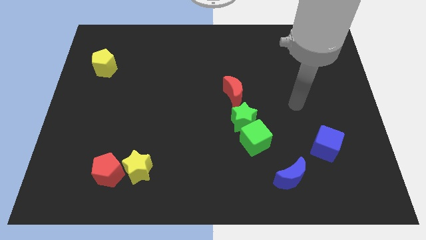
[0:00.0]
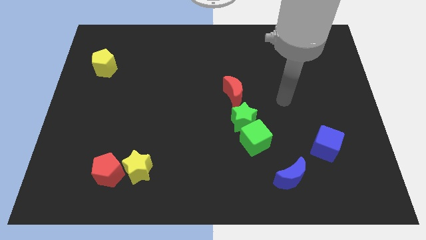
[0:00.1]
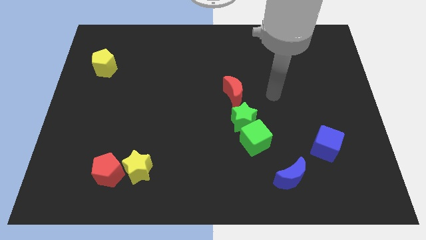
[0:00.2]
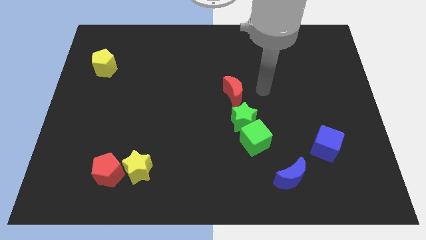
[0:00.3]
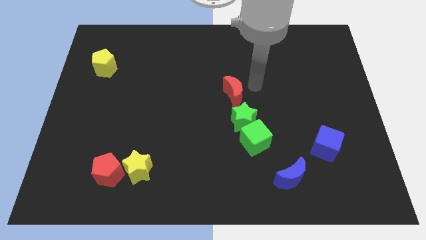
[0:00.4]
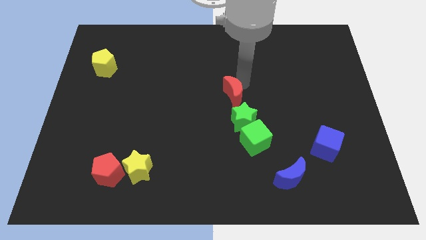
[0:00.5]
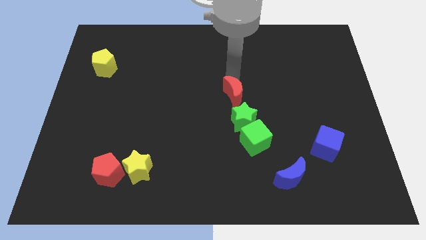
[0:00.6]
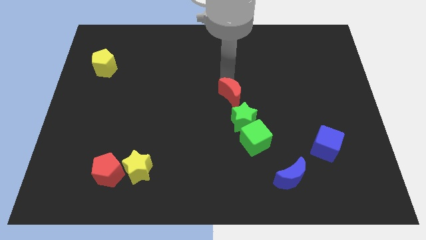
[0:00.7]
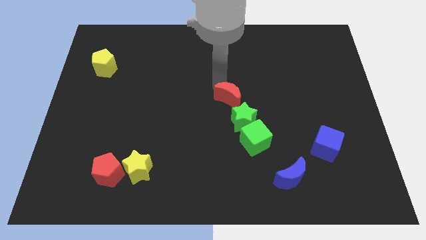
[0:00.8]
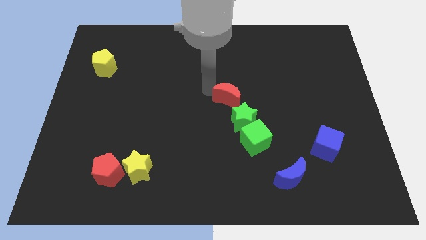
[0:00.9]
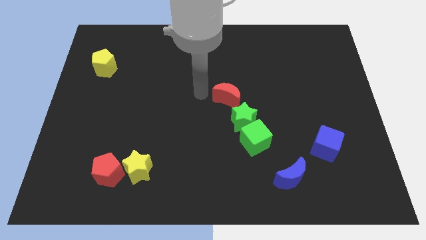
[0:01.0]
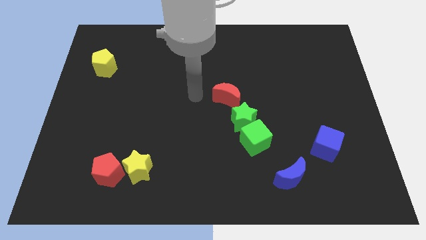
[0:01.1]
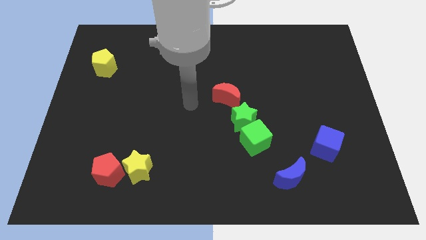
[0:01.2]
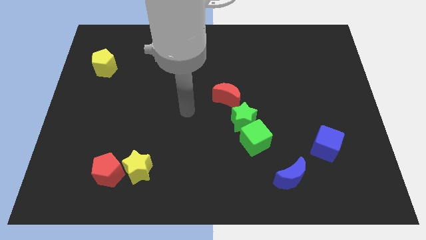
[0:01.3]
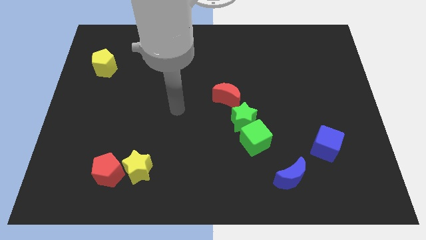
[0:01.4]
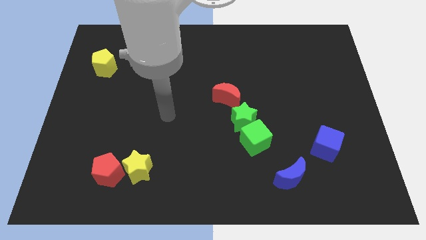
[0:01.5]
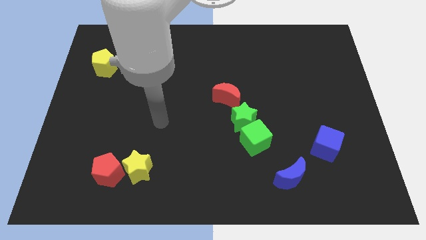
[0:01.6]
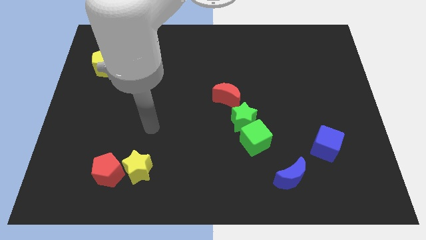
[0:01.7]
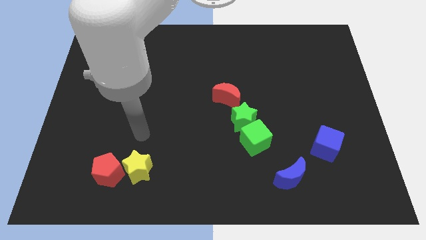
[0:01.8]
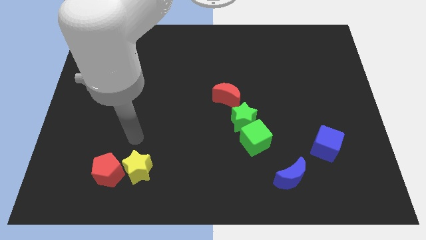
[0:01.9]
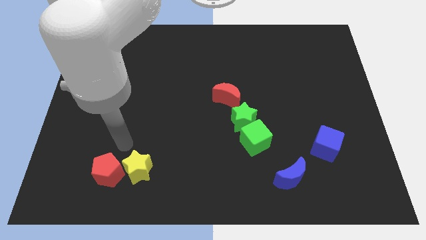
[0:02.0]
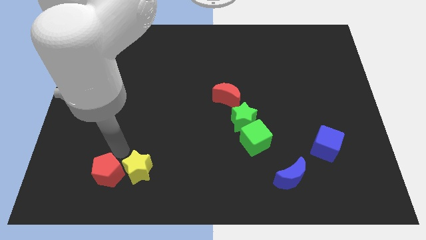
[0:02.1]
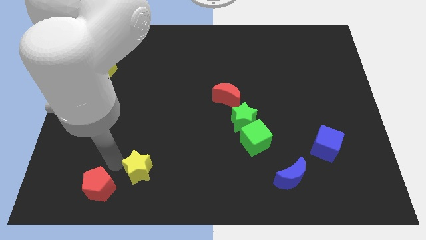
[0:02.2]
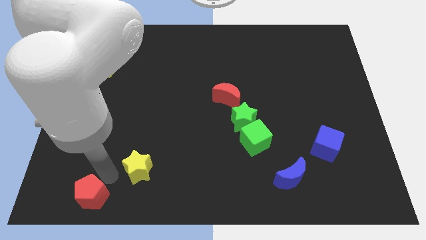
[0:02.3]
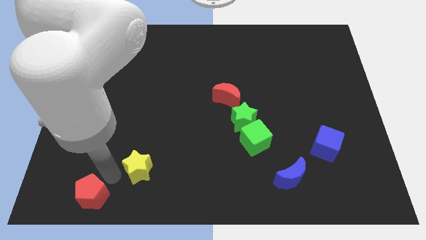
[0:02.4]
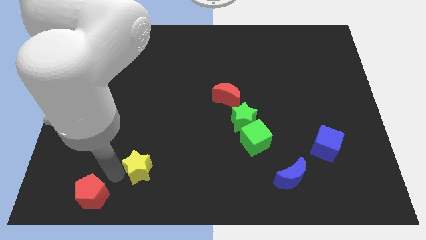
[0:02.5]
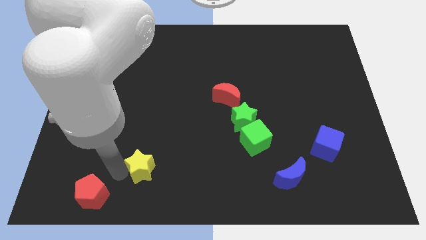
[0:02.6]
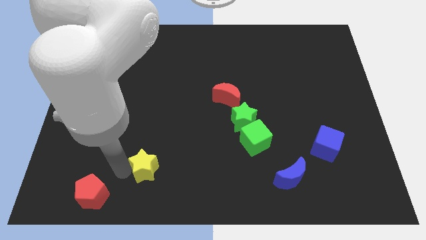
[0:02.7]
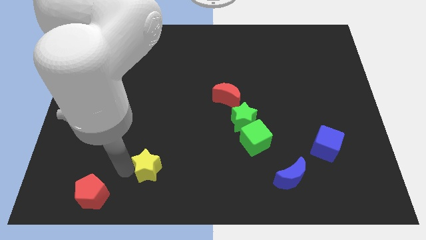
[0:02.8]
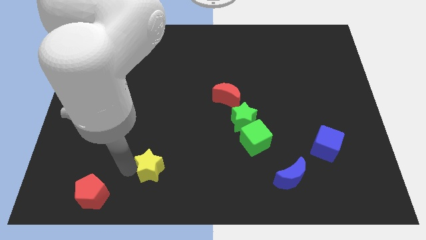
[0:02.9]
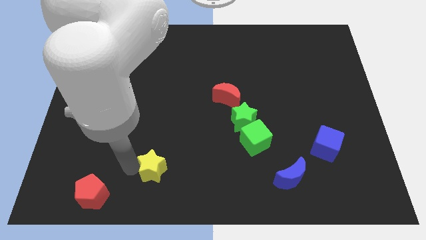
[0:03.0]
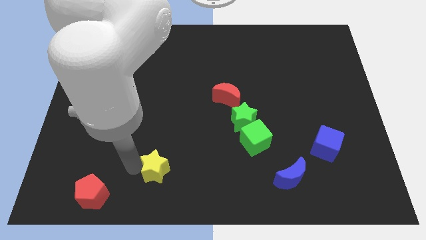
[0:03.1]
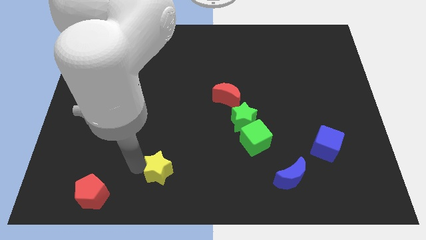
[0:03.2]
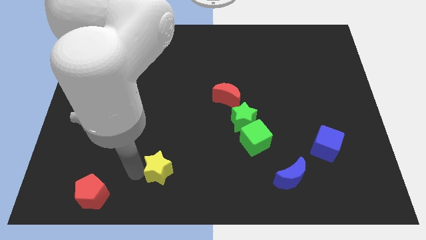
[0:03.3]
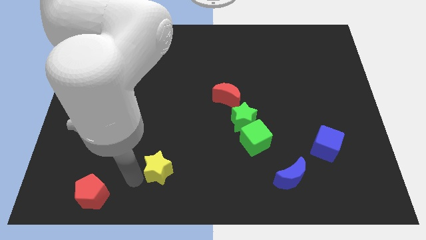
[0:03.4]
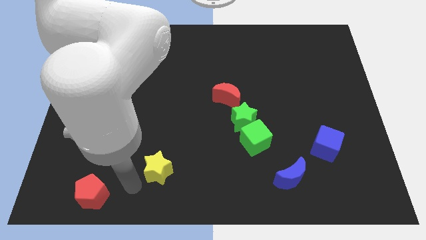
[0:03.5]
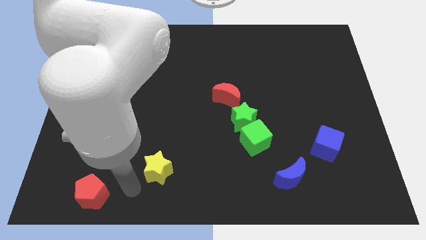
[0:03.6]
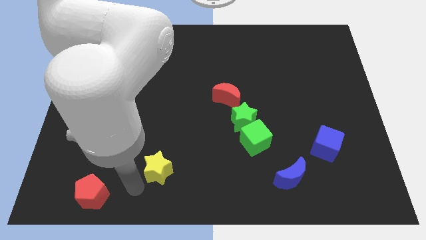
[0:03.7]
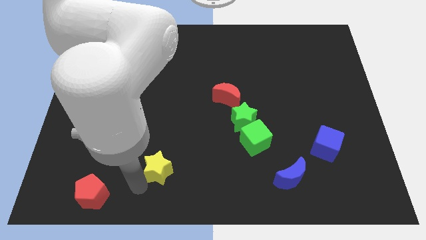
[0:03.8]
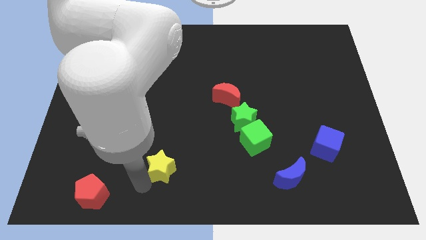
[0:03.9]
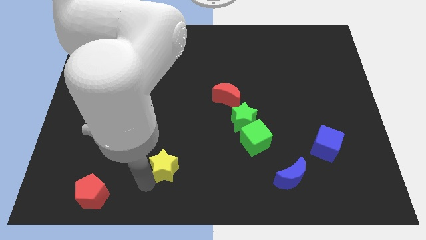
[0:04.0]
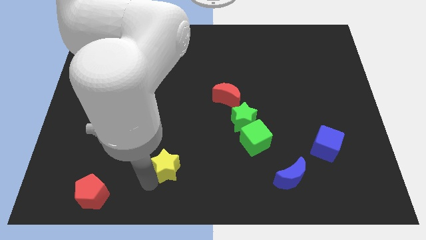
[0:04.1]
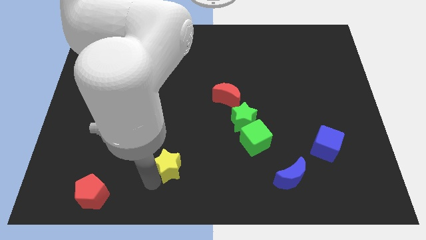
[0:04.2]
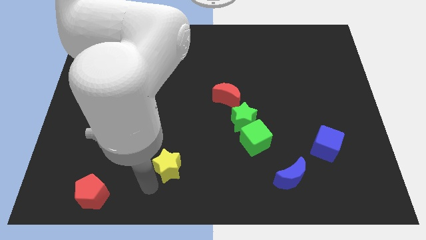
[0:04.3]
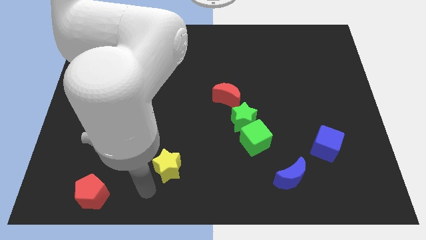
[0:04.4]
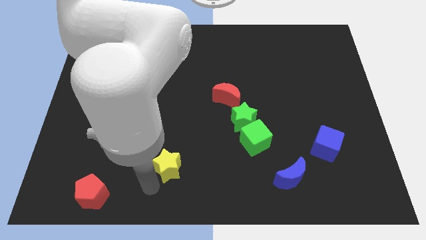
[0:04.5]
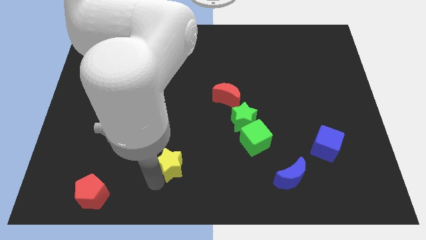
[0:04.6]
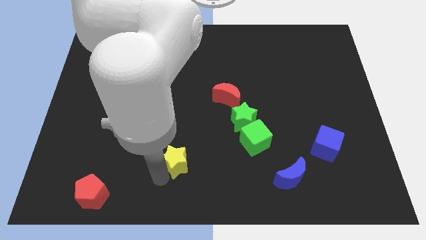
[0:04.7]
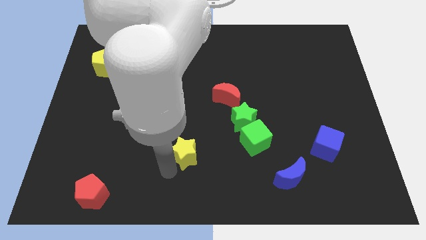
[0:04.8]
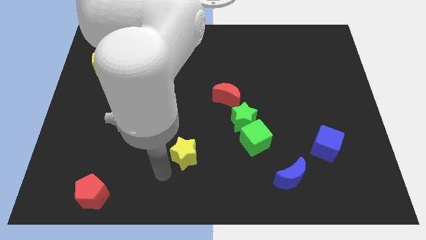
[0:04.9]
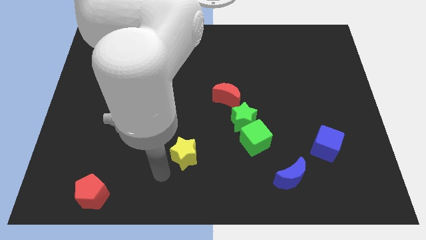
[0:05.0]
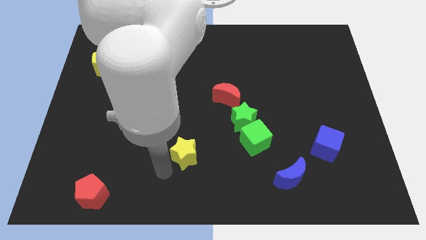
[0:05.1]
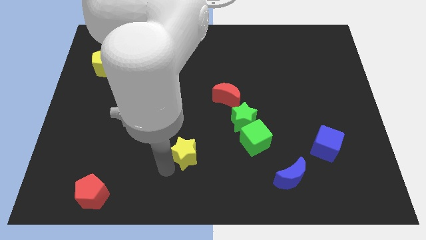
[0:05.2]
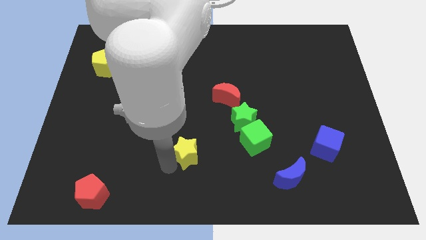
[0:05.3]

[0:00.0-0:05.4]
push the yellow star left of the green cube

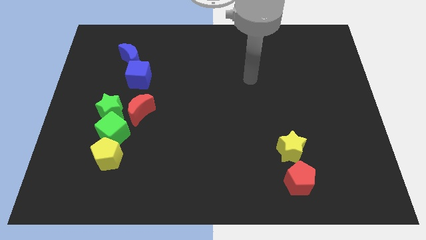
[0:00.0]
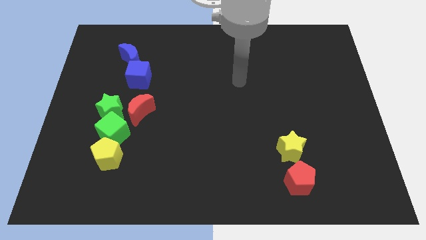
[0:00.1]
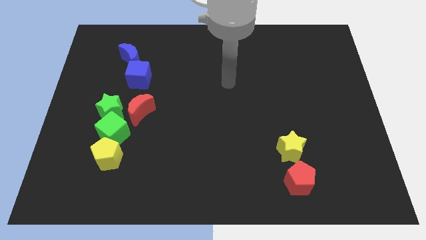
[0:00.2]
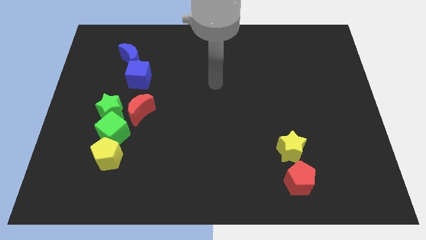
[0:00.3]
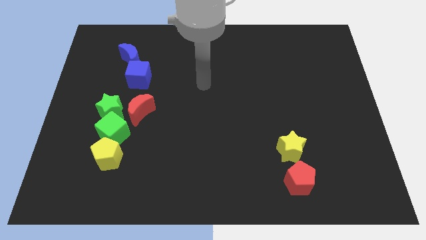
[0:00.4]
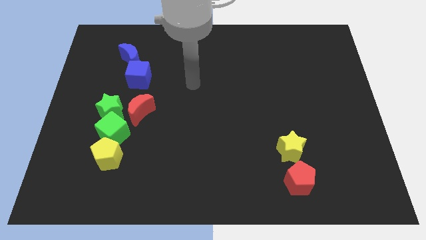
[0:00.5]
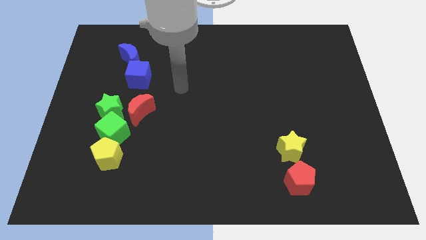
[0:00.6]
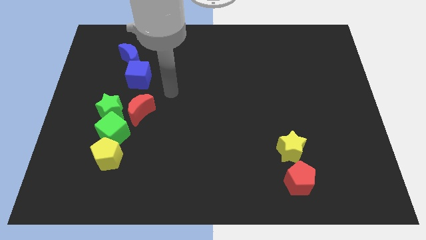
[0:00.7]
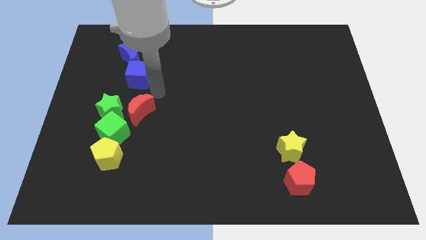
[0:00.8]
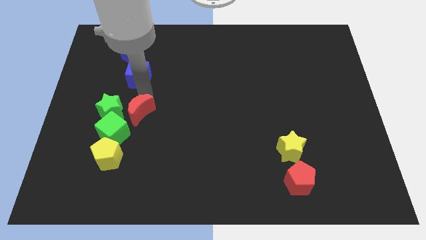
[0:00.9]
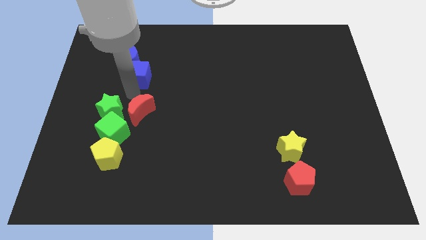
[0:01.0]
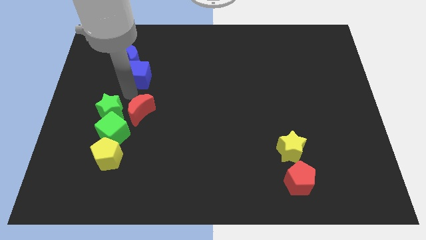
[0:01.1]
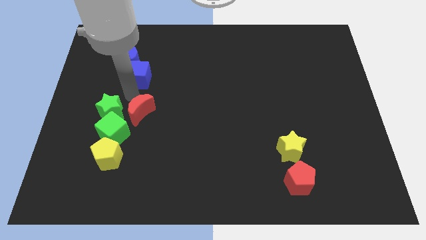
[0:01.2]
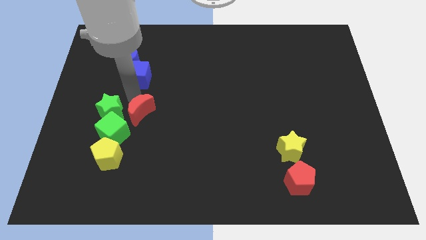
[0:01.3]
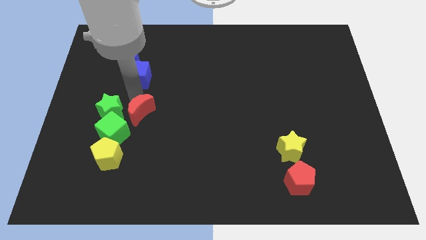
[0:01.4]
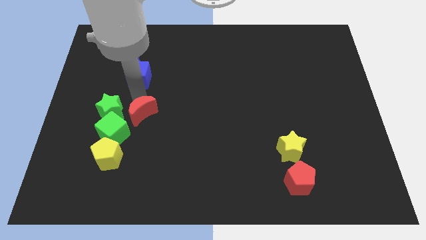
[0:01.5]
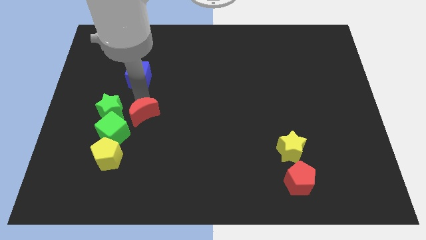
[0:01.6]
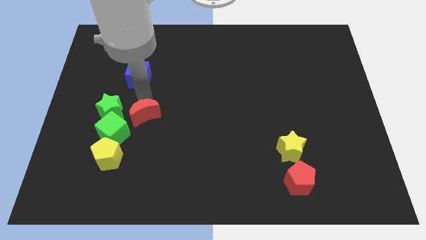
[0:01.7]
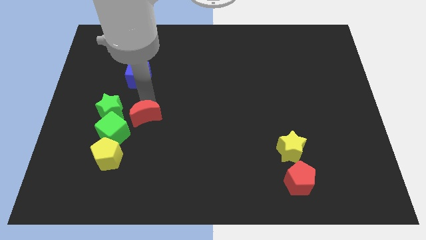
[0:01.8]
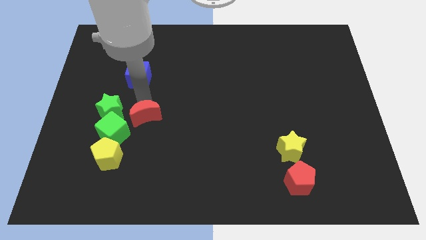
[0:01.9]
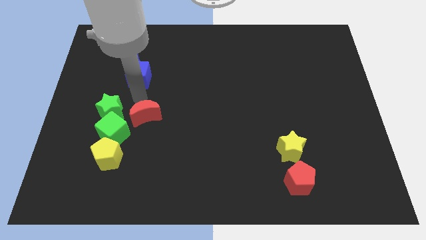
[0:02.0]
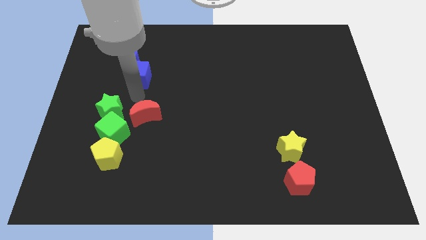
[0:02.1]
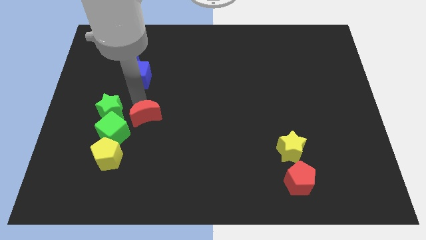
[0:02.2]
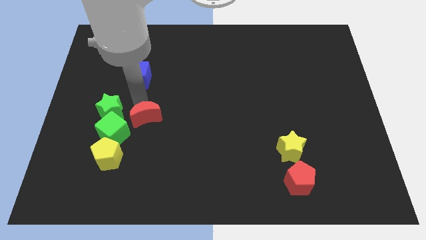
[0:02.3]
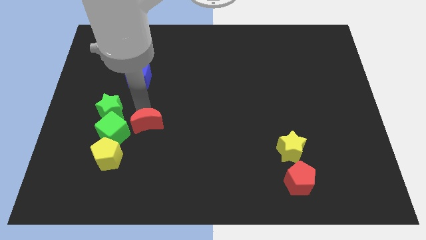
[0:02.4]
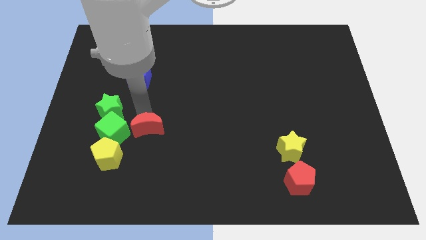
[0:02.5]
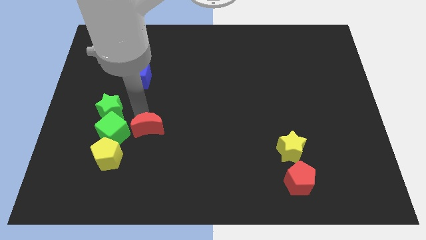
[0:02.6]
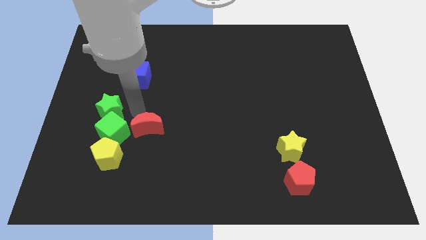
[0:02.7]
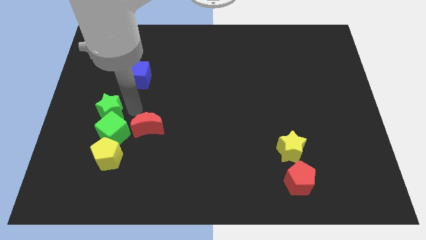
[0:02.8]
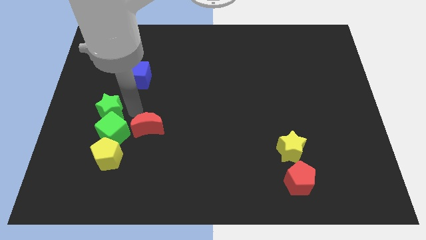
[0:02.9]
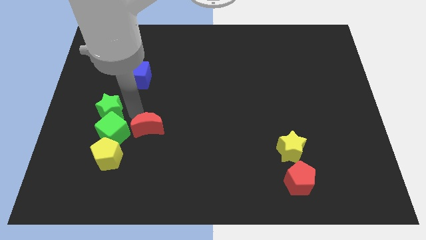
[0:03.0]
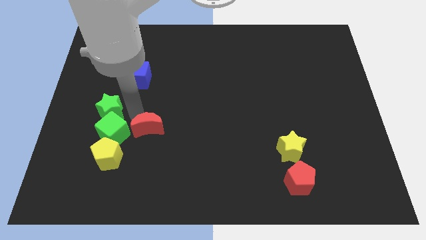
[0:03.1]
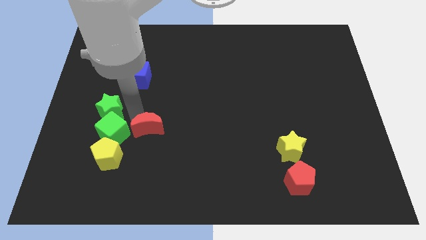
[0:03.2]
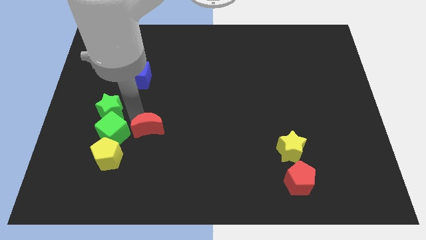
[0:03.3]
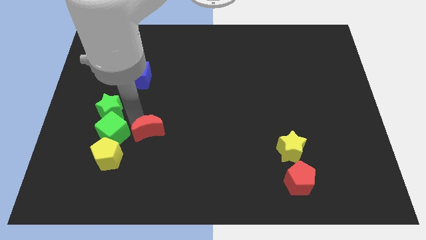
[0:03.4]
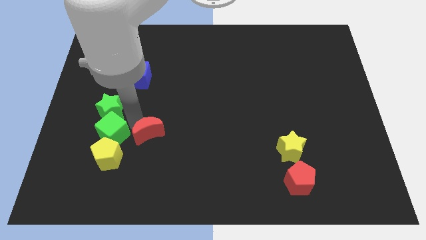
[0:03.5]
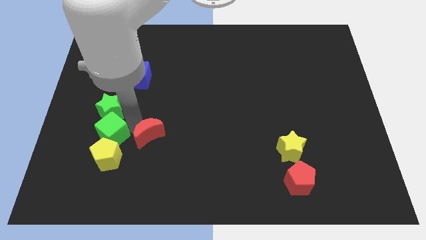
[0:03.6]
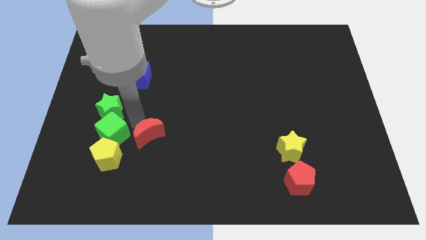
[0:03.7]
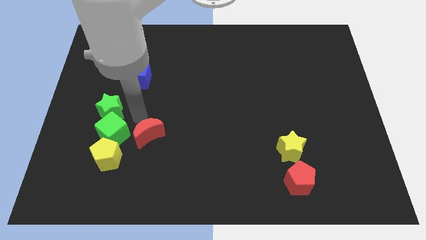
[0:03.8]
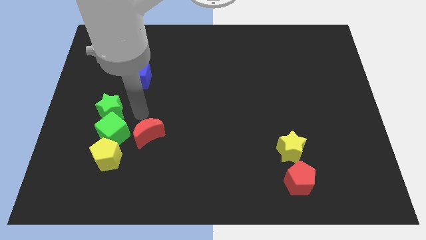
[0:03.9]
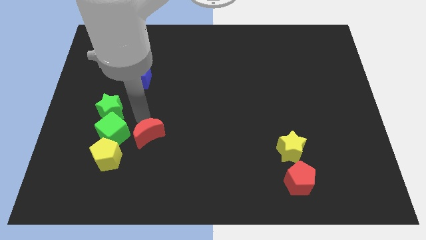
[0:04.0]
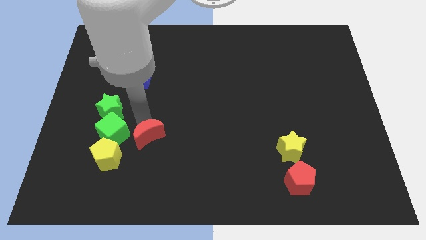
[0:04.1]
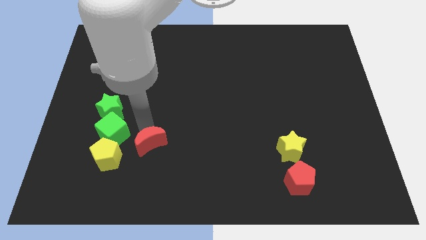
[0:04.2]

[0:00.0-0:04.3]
move the red moon to the right side of the yellow pentagon
